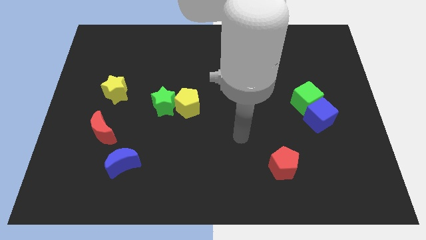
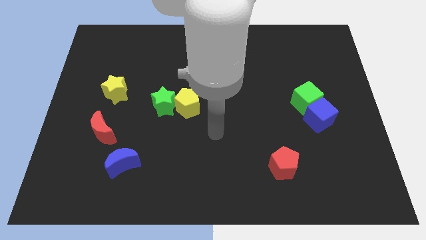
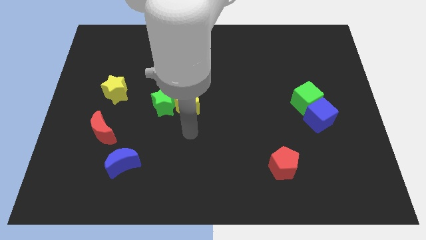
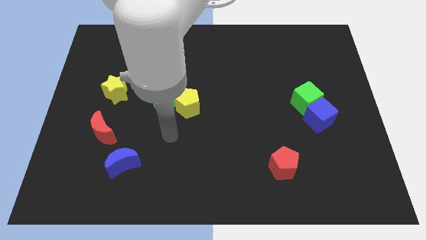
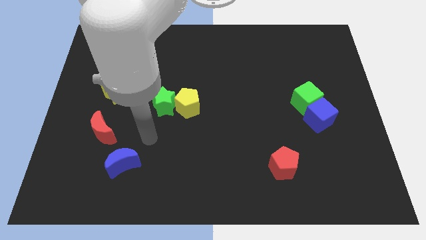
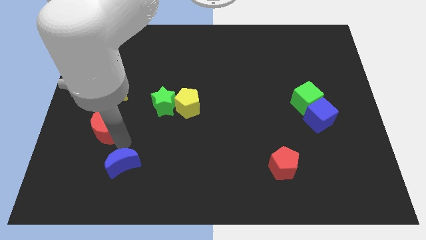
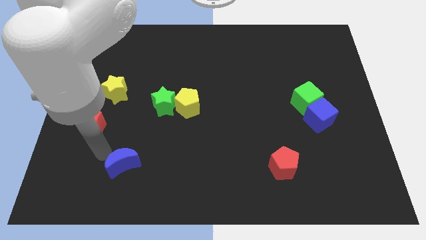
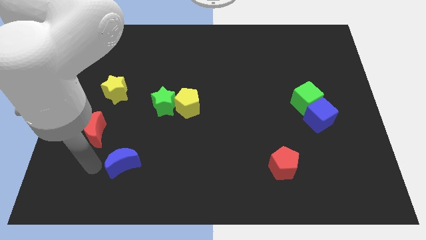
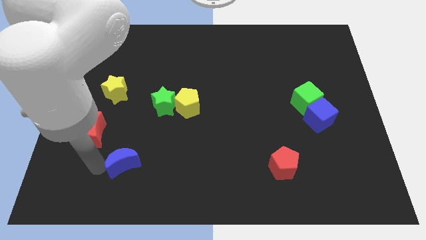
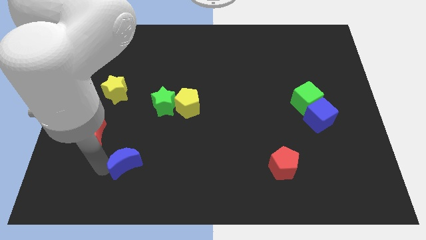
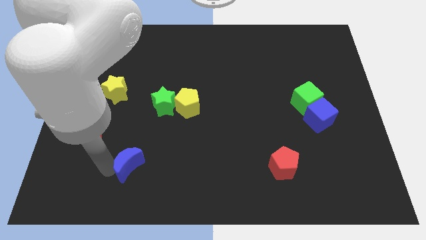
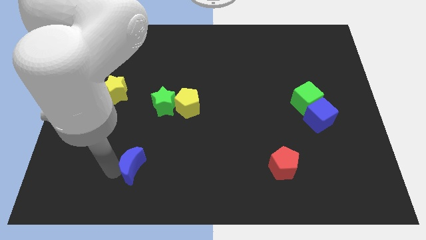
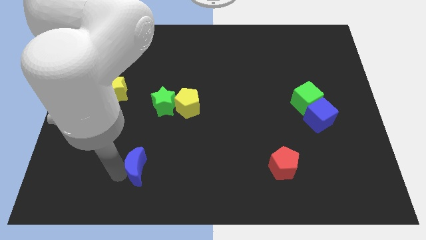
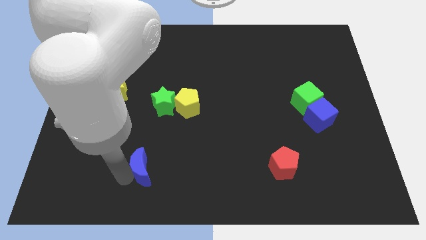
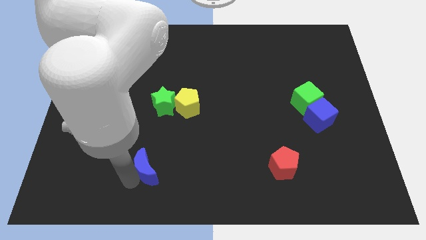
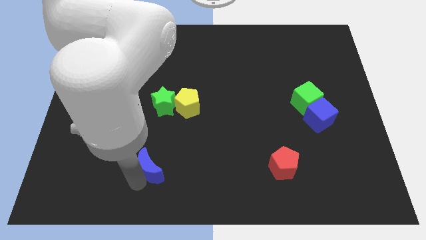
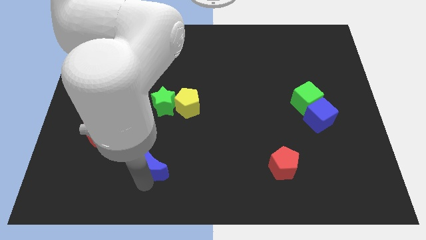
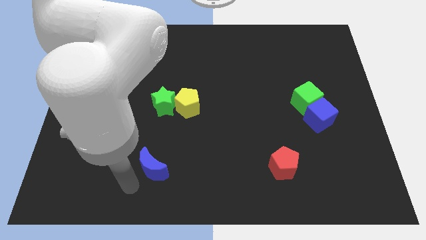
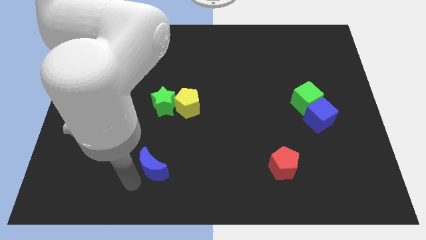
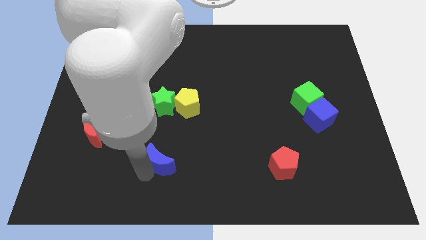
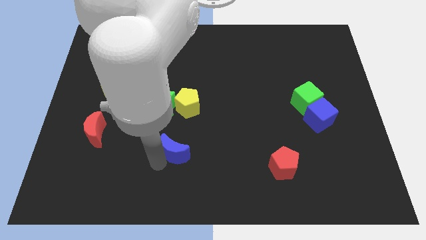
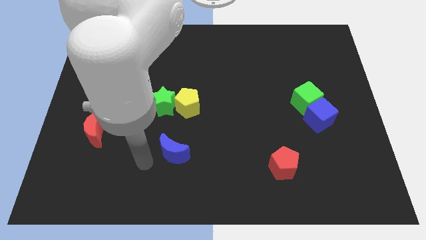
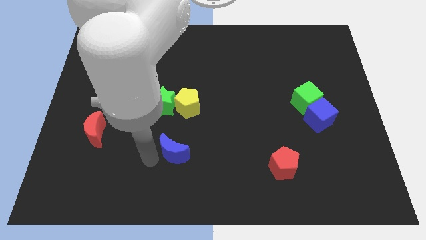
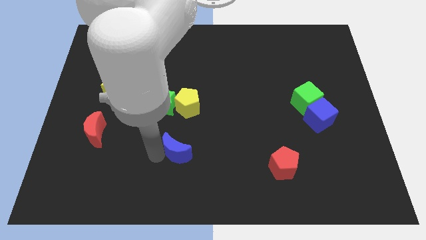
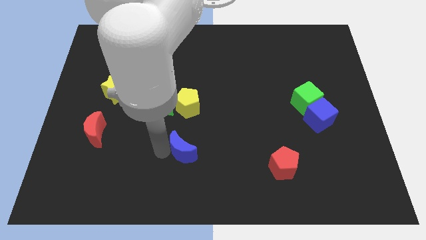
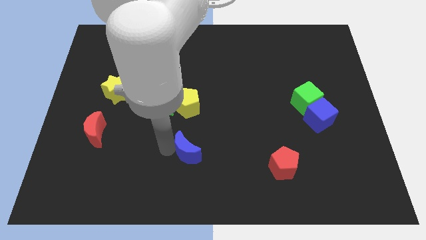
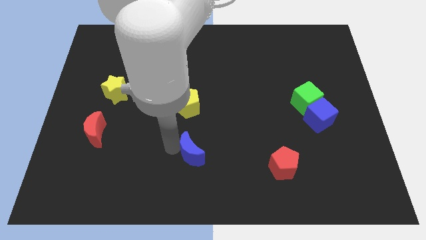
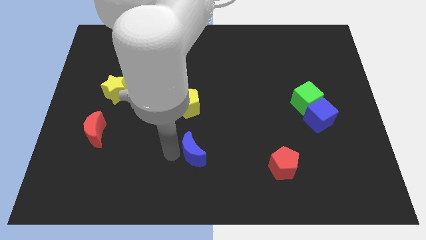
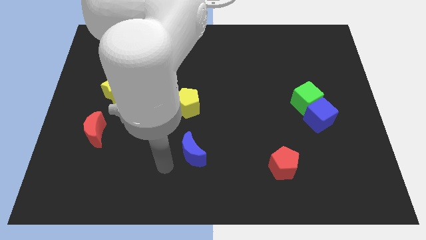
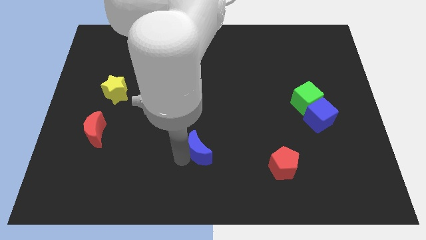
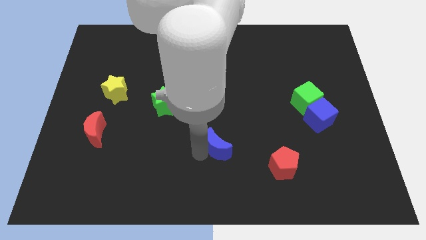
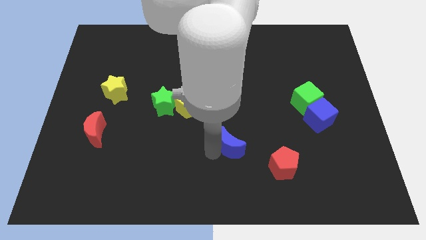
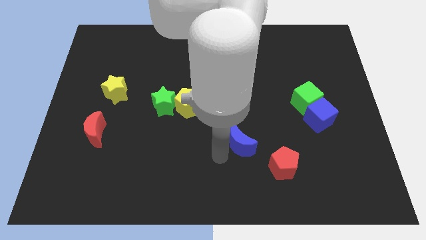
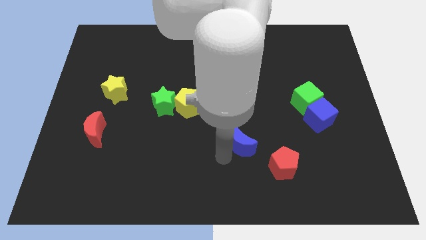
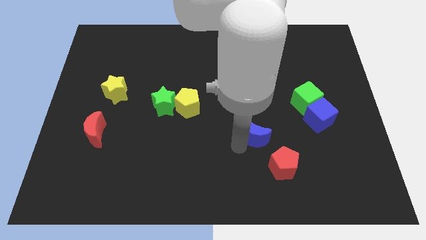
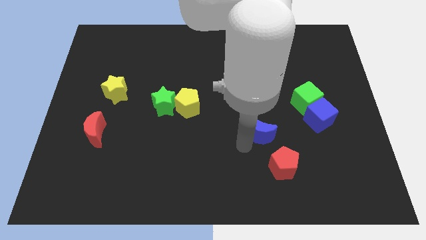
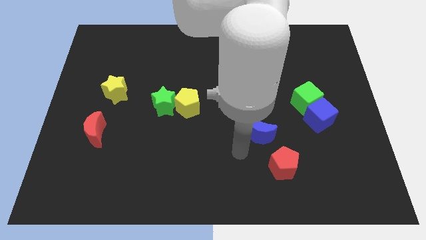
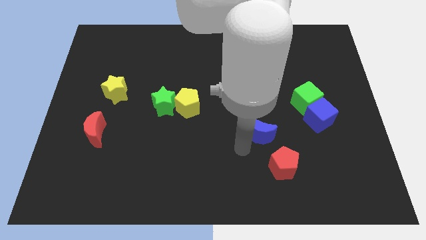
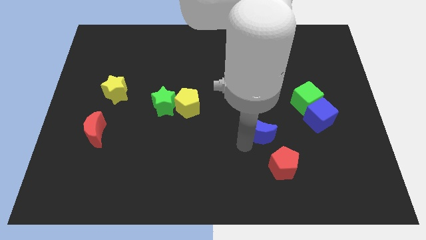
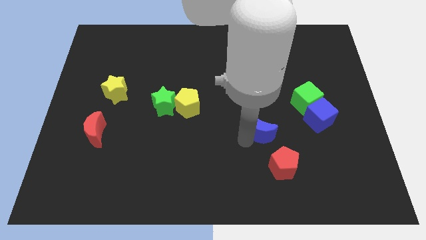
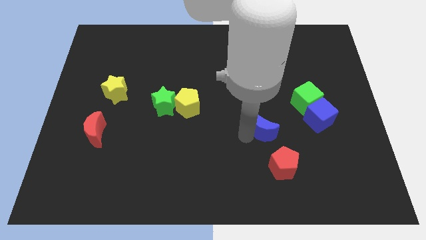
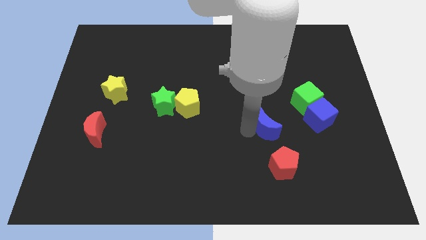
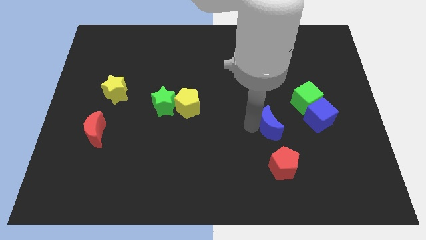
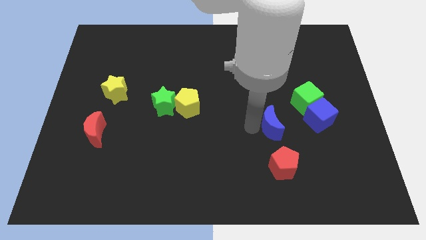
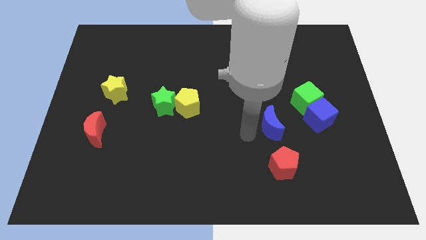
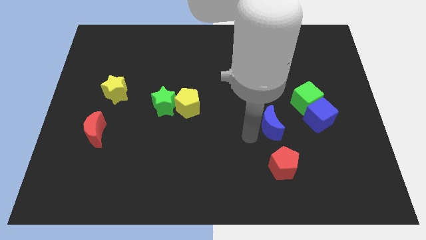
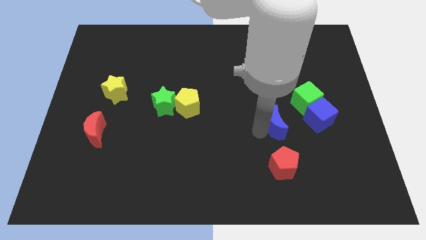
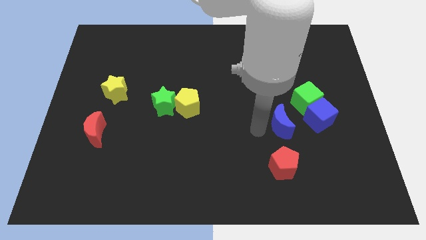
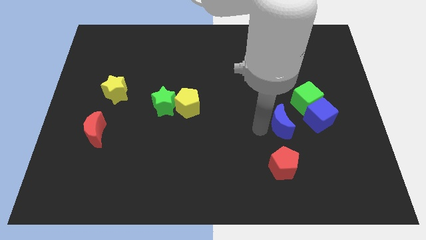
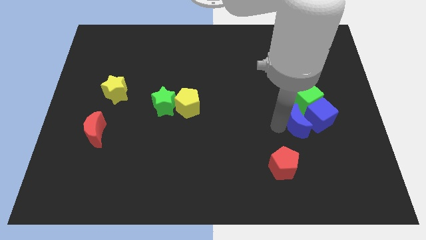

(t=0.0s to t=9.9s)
push the blue moon to the blue cube

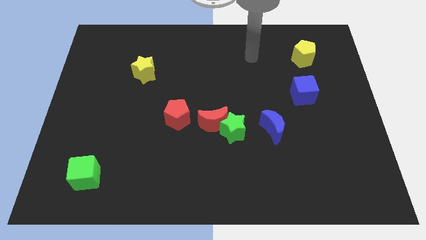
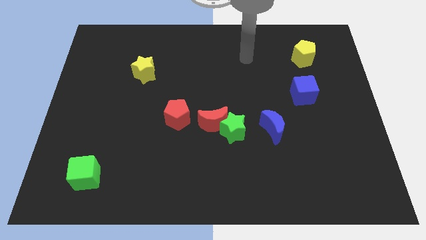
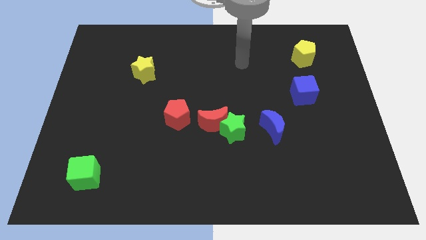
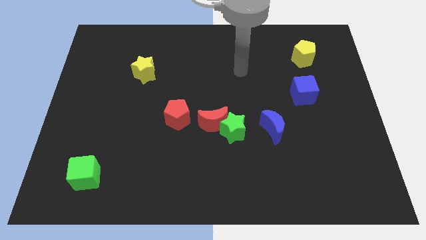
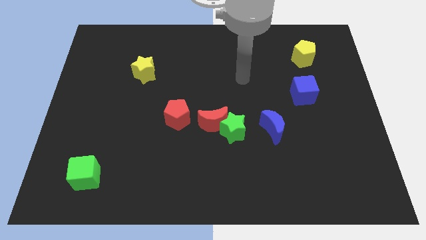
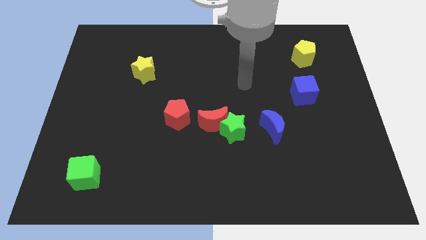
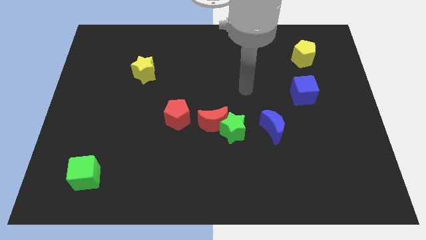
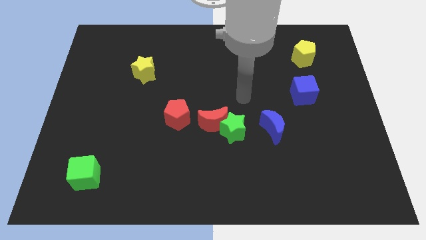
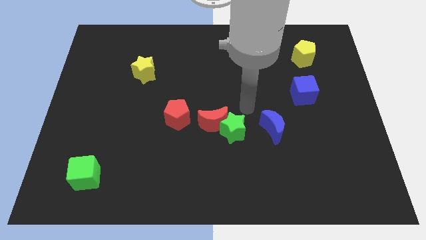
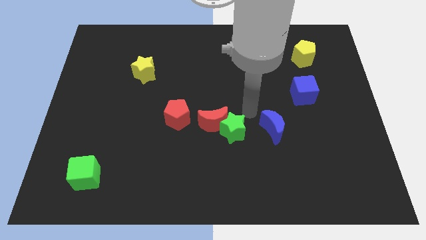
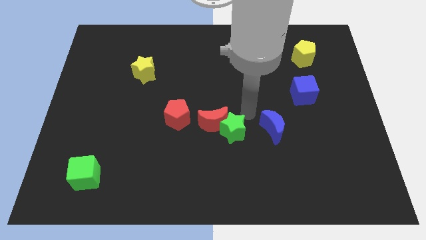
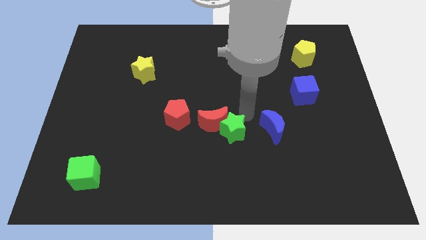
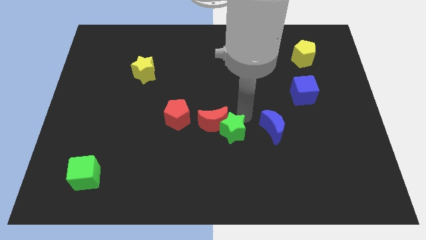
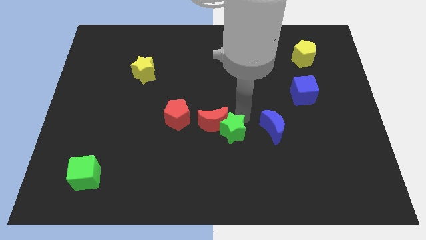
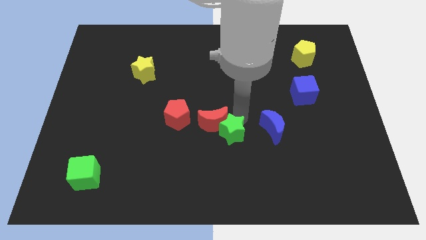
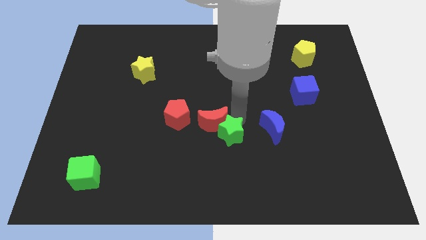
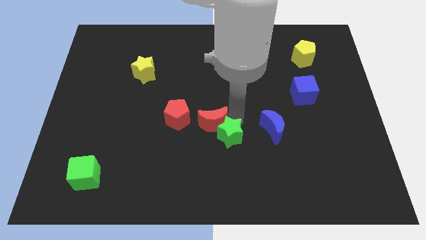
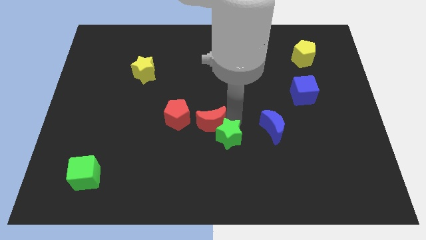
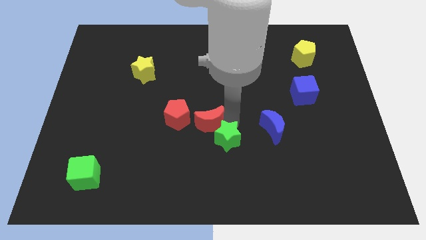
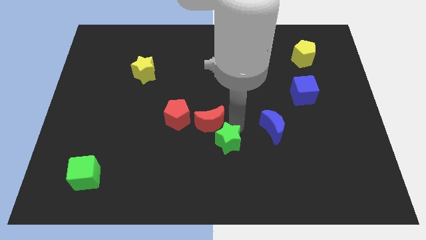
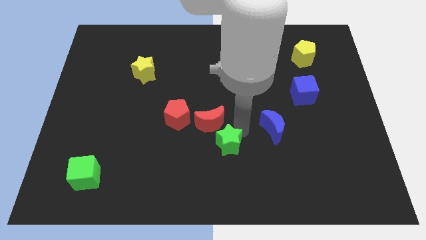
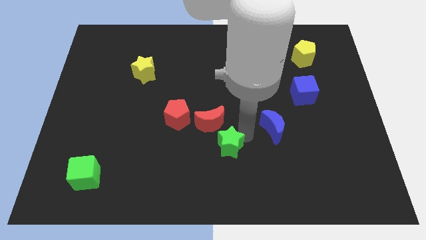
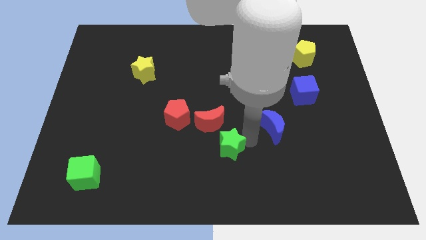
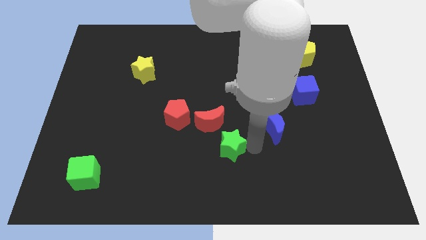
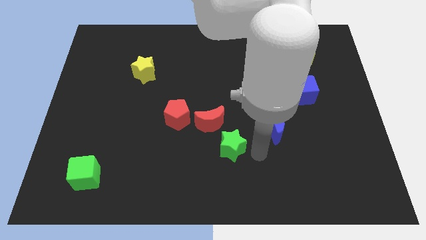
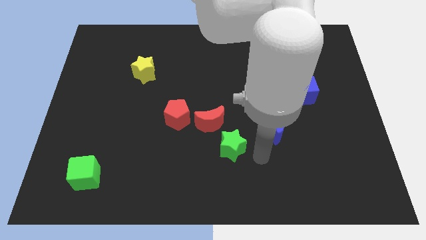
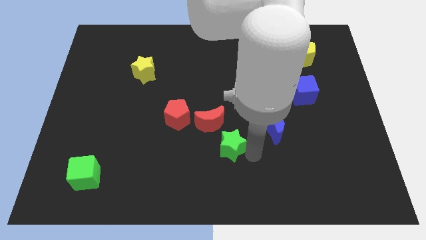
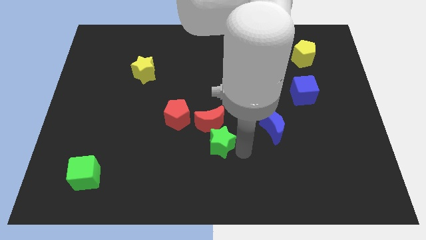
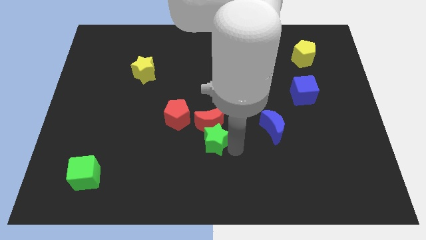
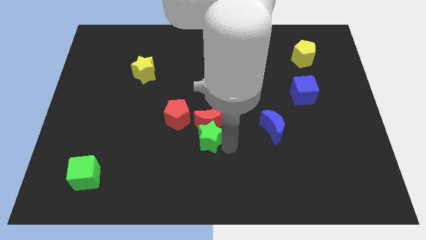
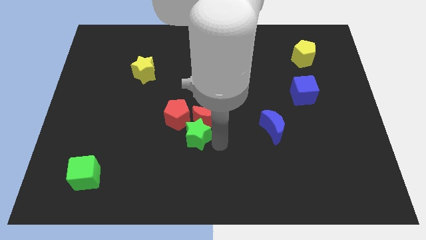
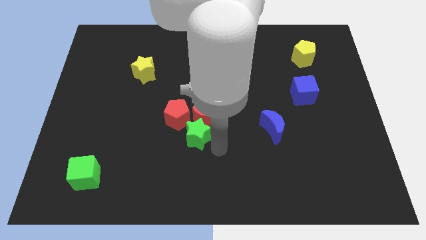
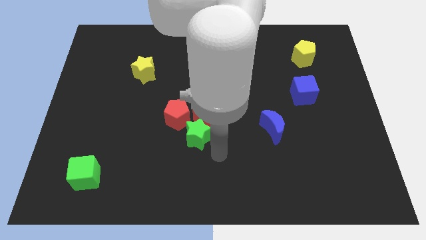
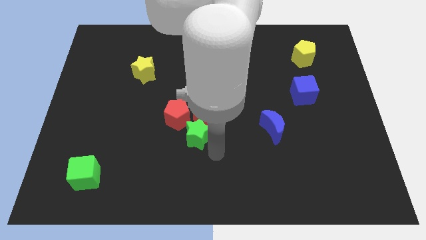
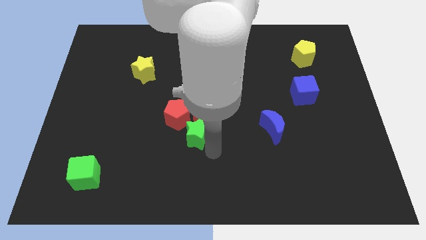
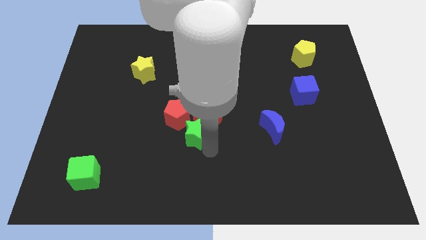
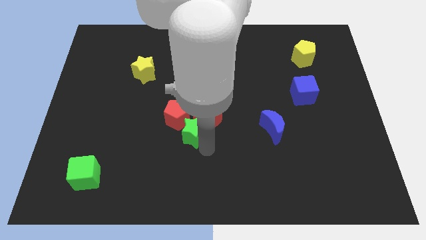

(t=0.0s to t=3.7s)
put the green star to the red pentagon
